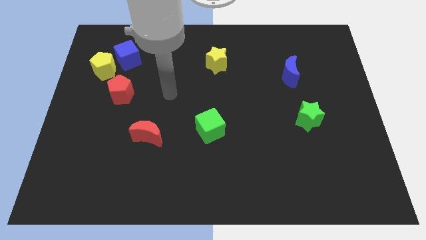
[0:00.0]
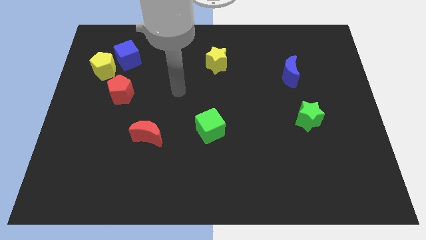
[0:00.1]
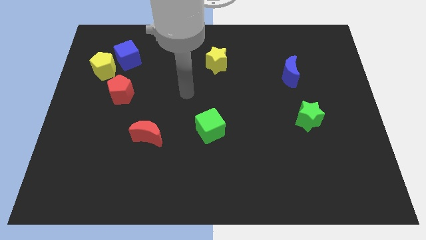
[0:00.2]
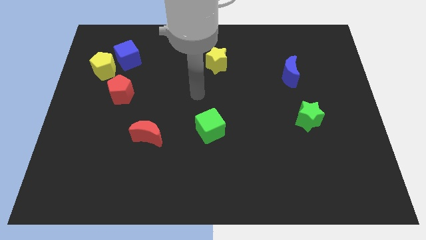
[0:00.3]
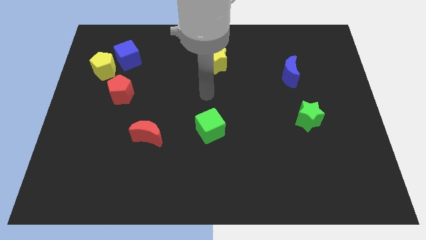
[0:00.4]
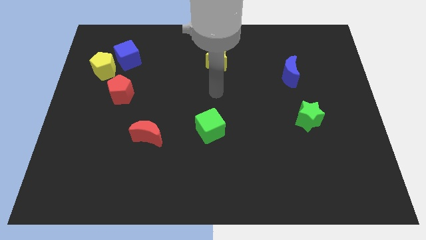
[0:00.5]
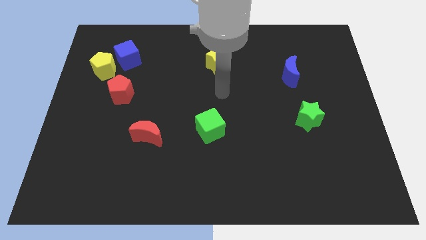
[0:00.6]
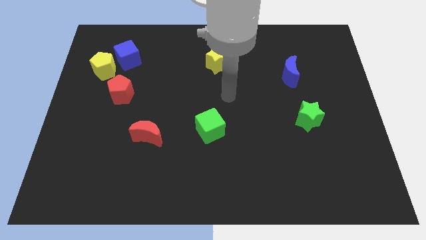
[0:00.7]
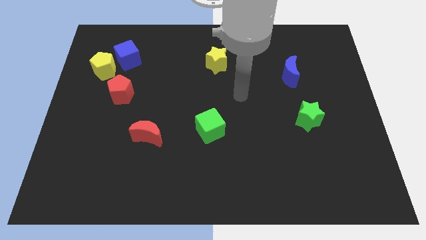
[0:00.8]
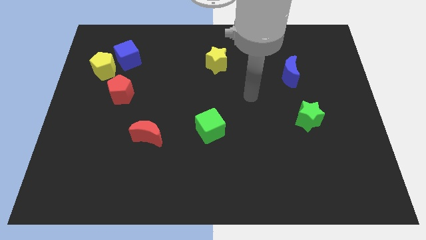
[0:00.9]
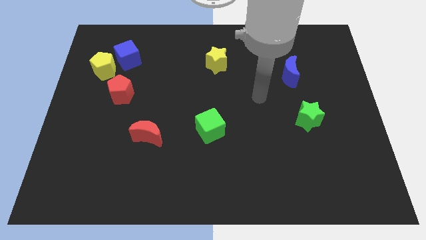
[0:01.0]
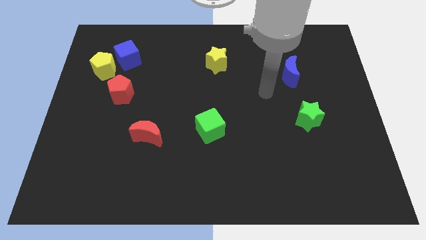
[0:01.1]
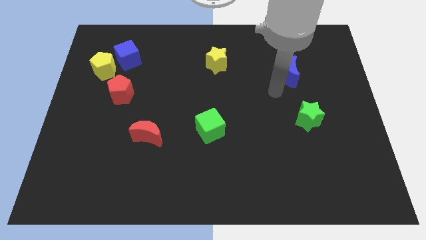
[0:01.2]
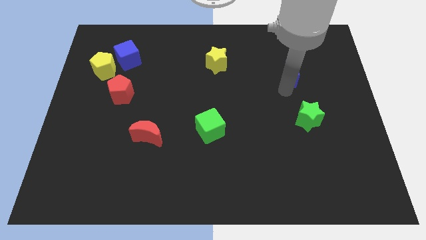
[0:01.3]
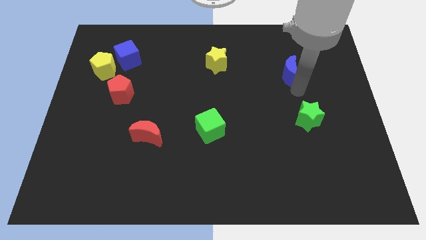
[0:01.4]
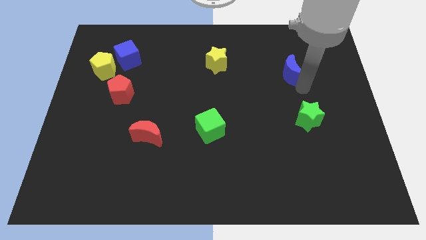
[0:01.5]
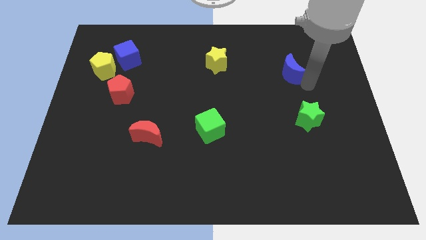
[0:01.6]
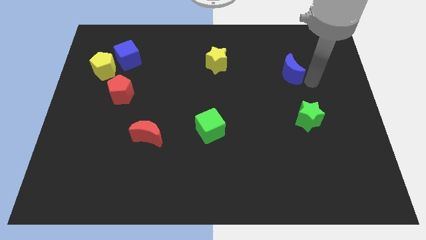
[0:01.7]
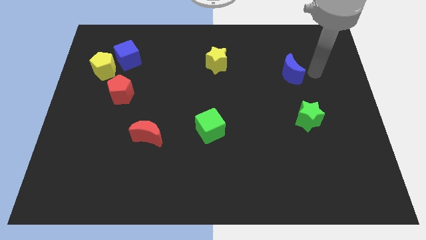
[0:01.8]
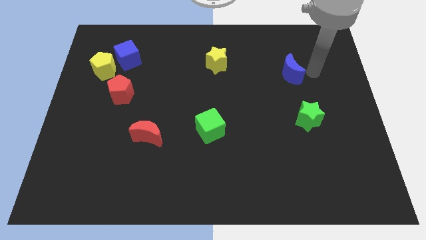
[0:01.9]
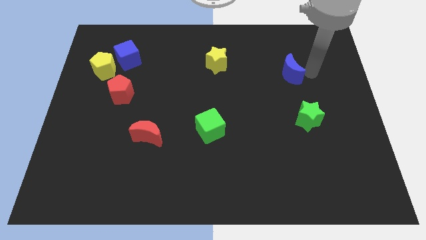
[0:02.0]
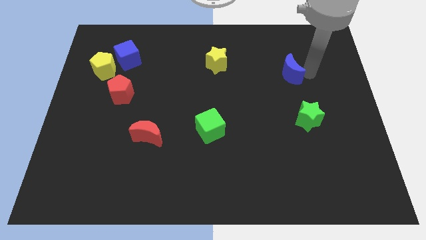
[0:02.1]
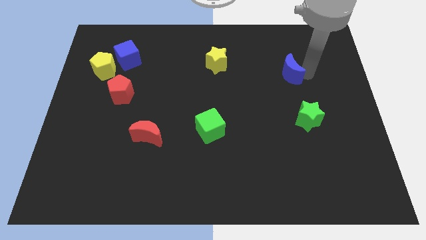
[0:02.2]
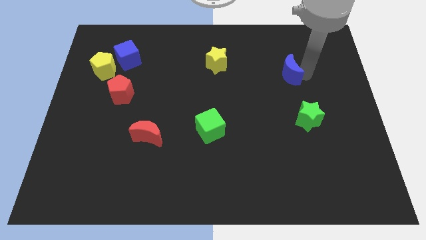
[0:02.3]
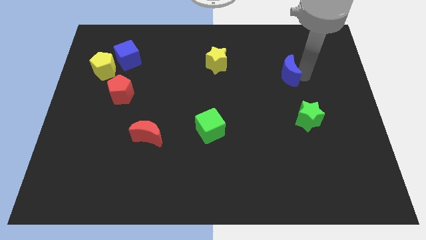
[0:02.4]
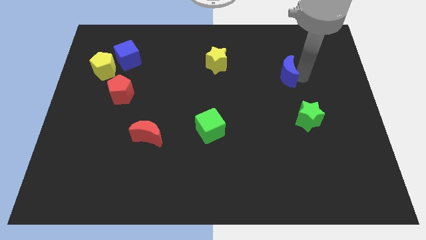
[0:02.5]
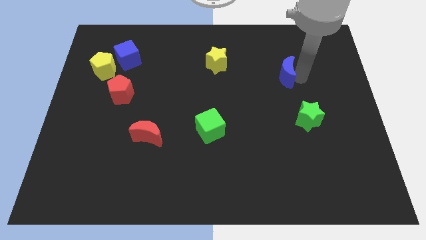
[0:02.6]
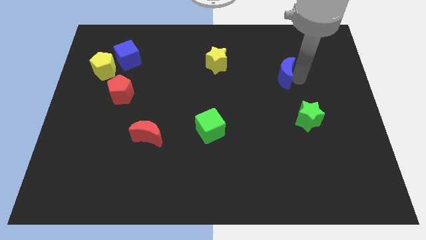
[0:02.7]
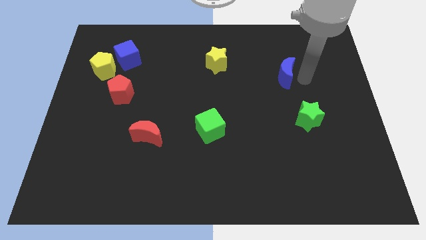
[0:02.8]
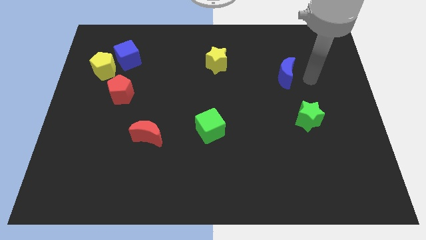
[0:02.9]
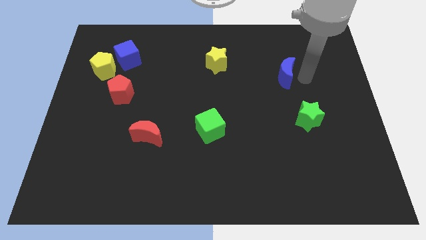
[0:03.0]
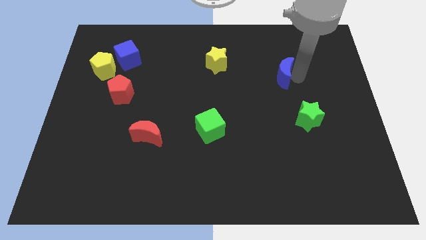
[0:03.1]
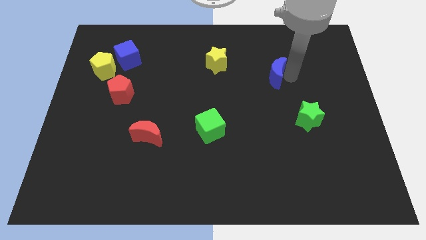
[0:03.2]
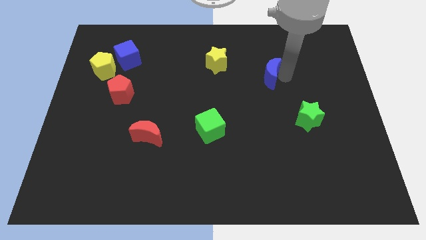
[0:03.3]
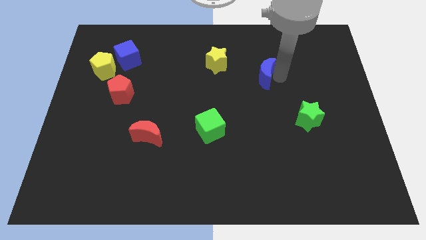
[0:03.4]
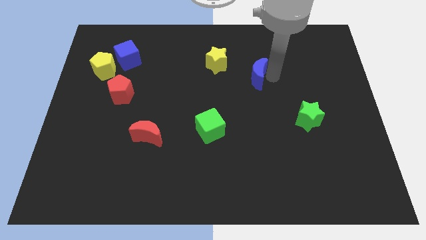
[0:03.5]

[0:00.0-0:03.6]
slide the blue moon to the left a little bit

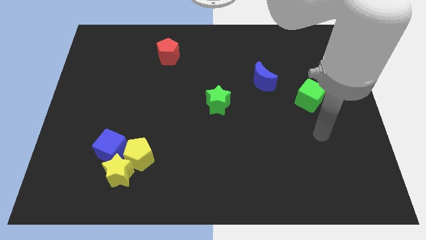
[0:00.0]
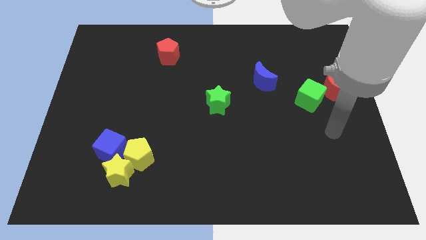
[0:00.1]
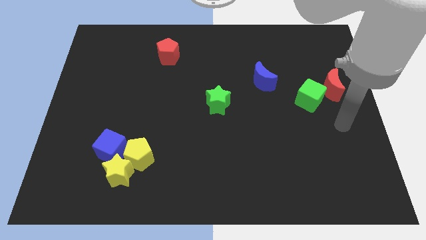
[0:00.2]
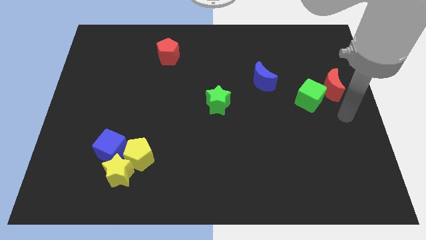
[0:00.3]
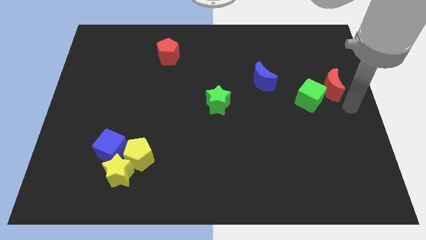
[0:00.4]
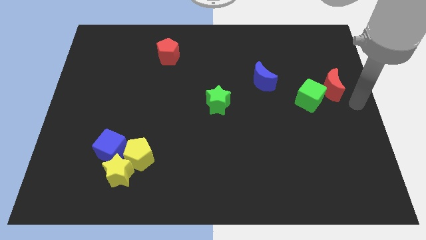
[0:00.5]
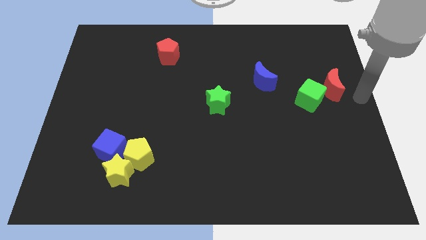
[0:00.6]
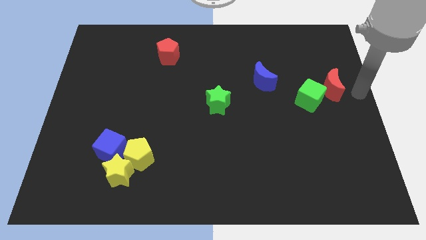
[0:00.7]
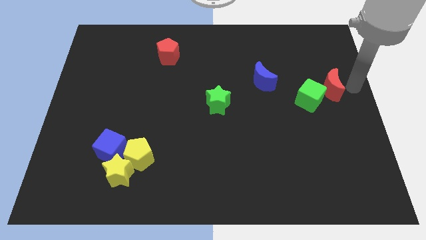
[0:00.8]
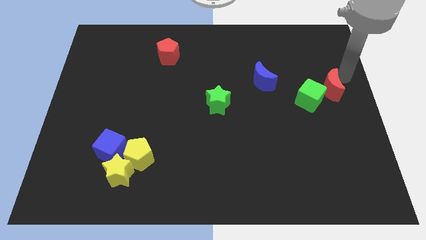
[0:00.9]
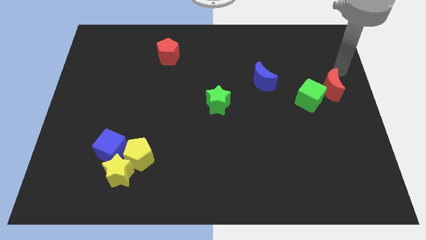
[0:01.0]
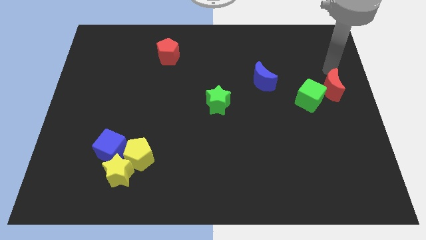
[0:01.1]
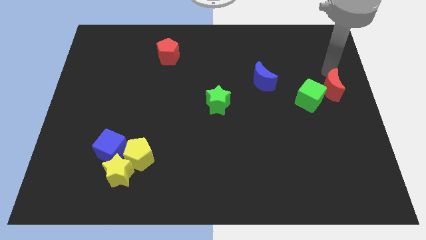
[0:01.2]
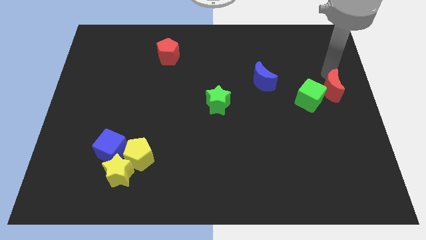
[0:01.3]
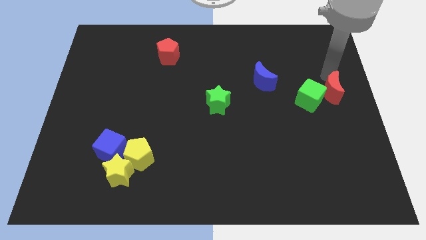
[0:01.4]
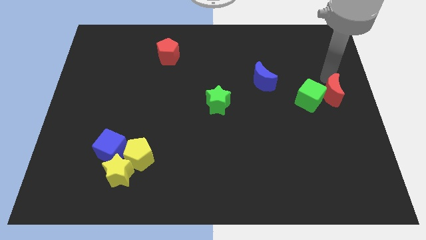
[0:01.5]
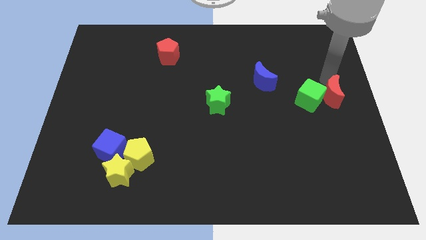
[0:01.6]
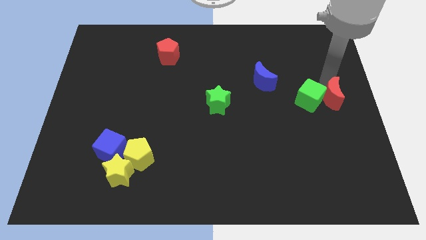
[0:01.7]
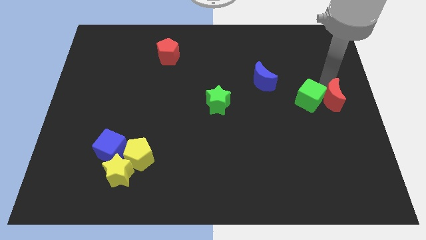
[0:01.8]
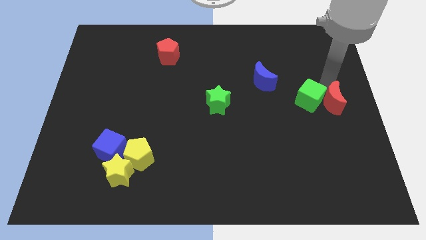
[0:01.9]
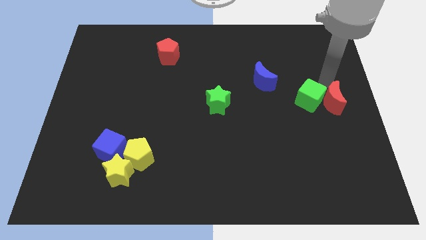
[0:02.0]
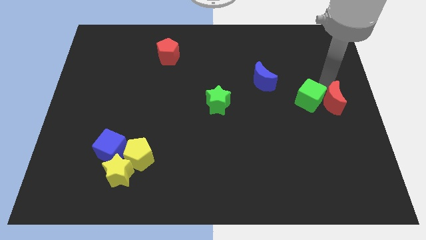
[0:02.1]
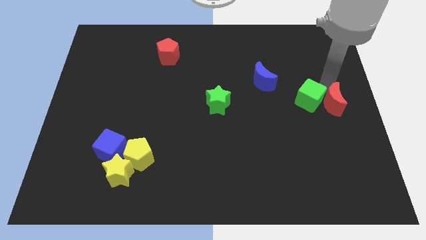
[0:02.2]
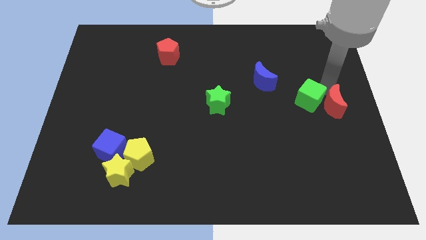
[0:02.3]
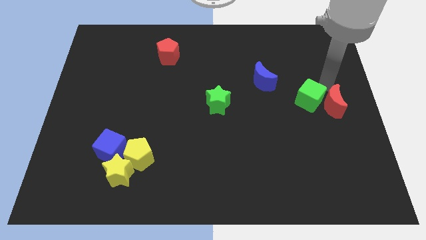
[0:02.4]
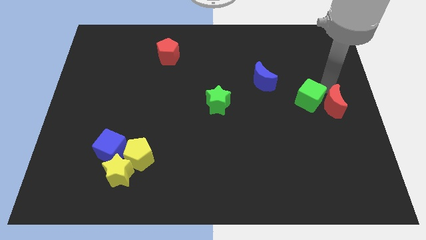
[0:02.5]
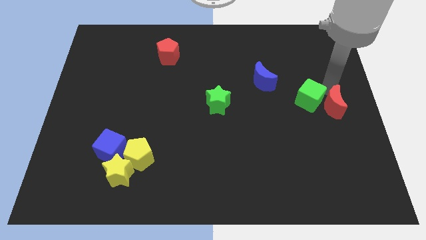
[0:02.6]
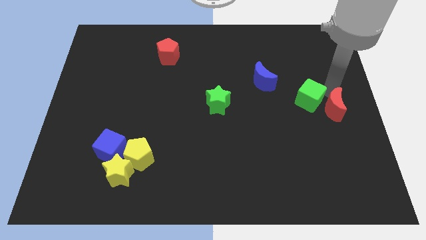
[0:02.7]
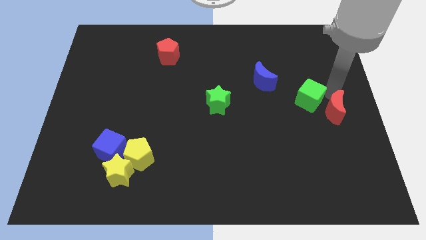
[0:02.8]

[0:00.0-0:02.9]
slide the red moon somewhat down

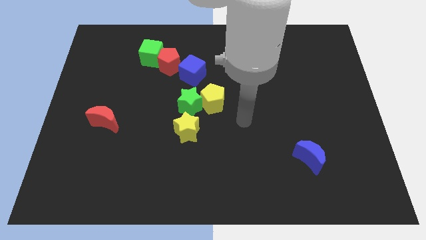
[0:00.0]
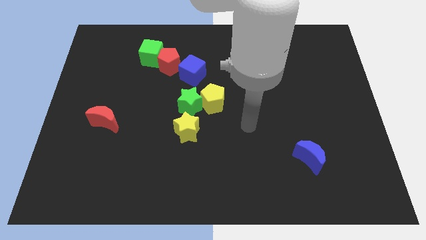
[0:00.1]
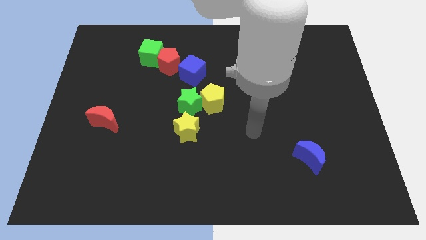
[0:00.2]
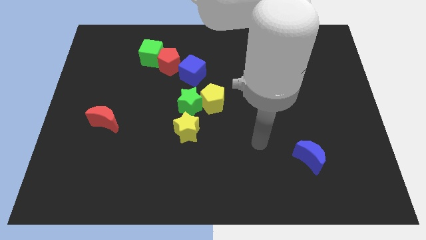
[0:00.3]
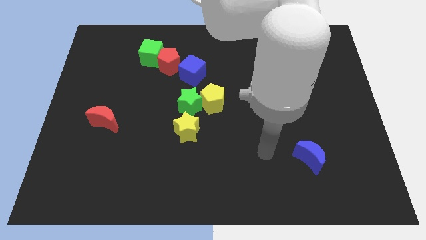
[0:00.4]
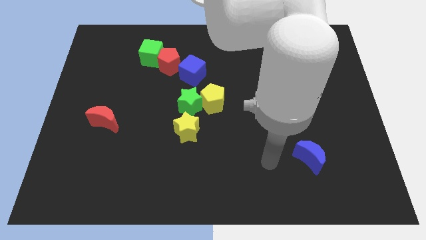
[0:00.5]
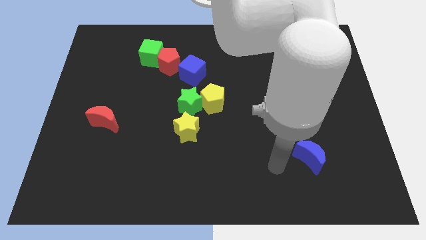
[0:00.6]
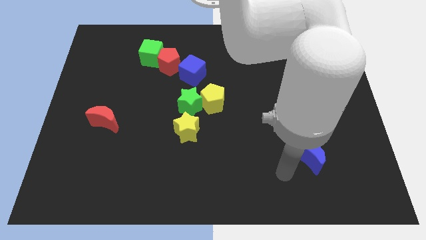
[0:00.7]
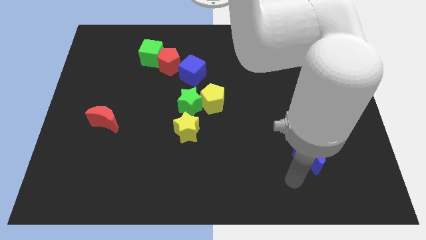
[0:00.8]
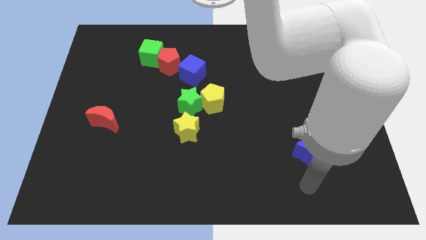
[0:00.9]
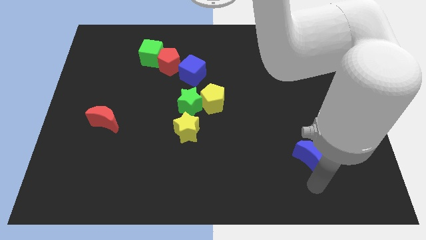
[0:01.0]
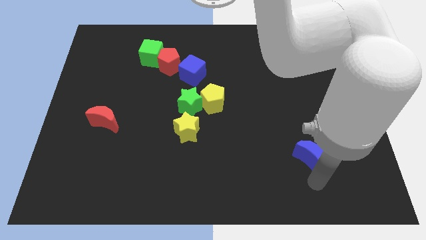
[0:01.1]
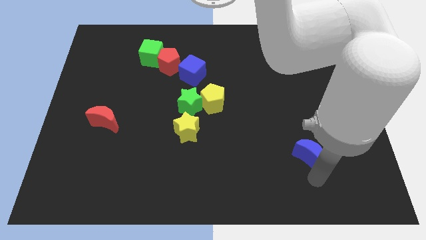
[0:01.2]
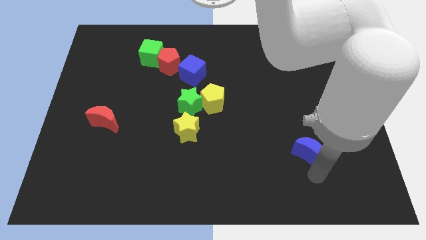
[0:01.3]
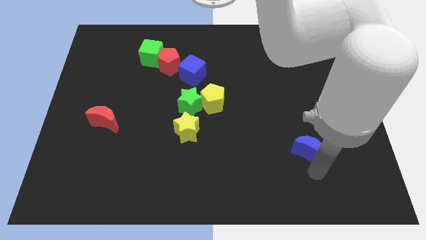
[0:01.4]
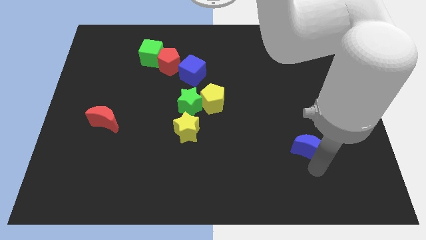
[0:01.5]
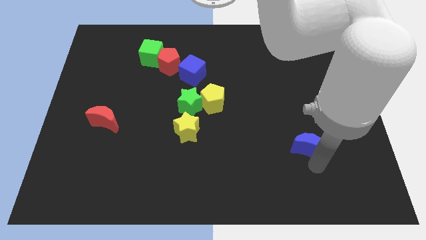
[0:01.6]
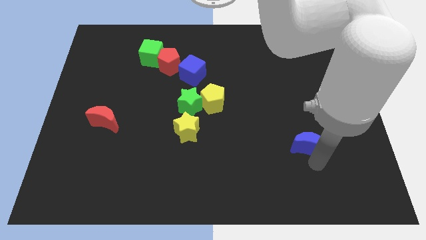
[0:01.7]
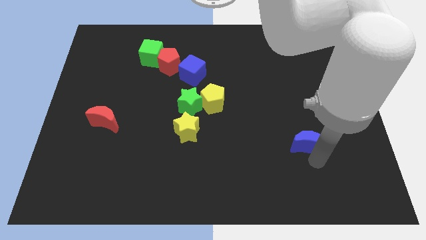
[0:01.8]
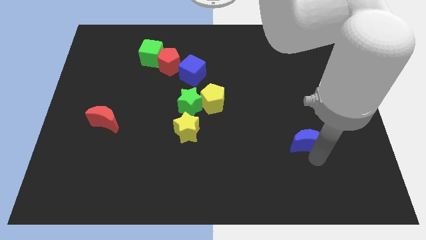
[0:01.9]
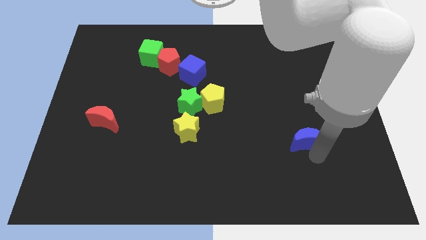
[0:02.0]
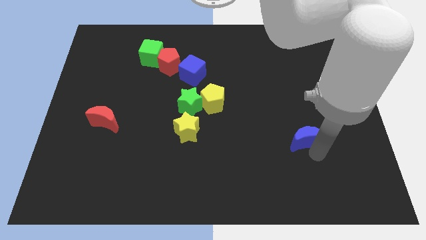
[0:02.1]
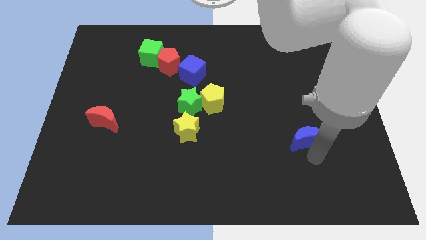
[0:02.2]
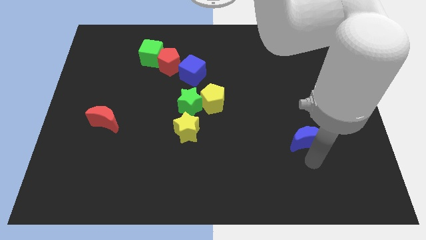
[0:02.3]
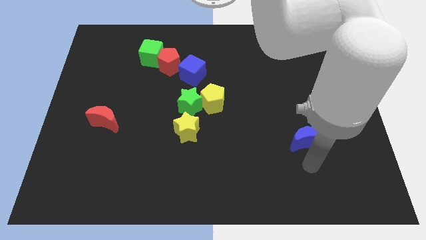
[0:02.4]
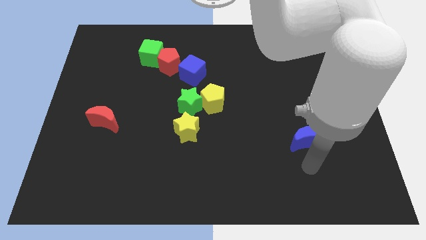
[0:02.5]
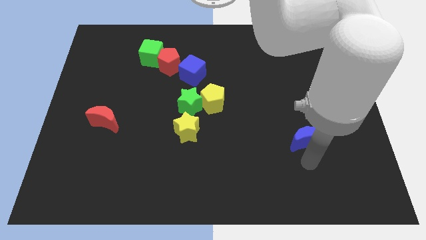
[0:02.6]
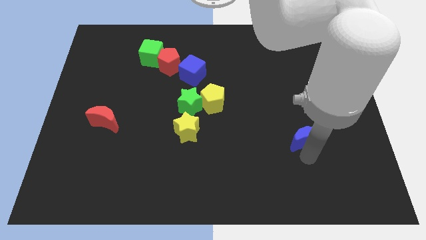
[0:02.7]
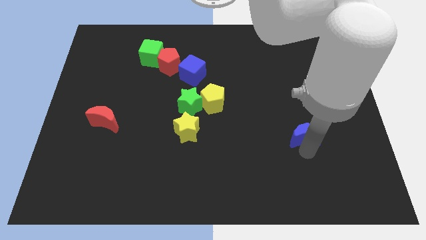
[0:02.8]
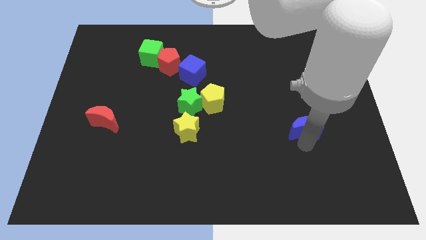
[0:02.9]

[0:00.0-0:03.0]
slightly move the blue moon up
